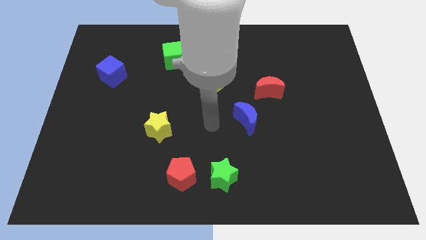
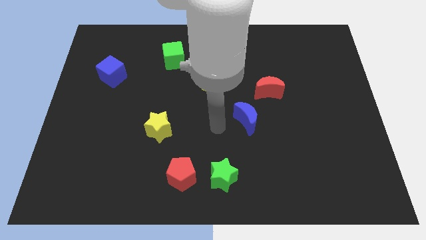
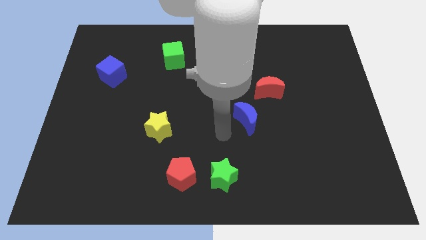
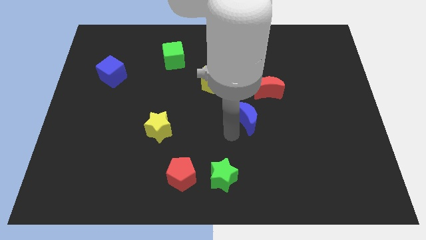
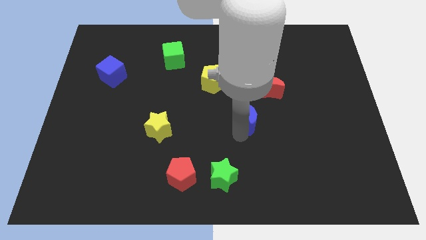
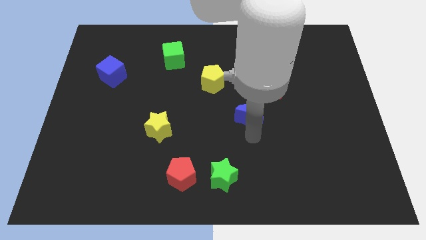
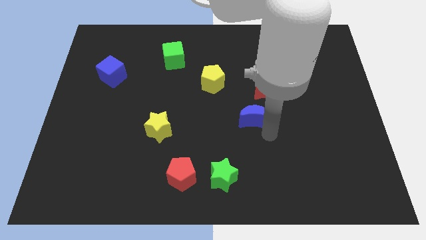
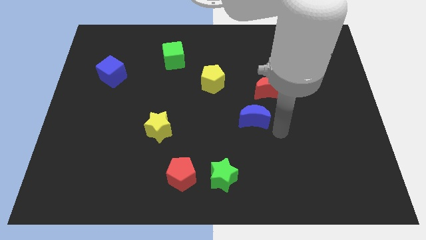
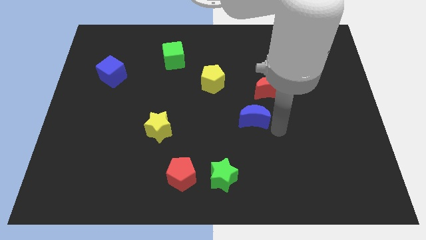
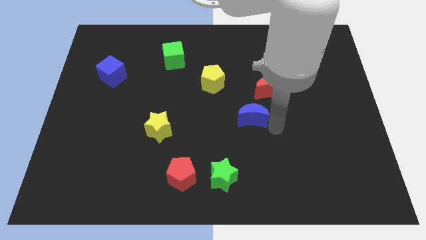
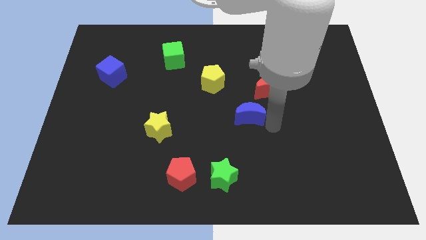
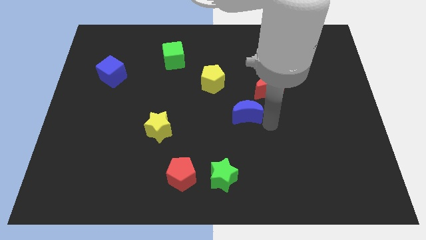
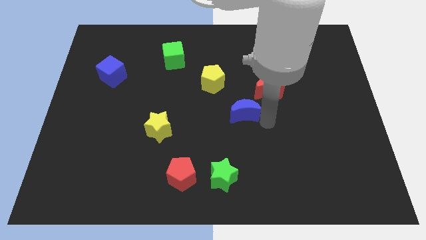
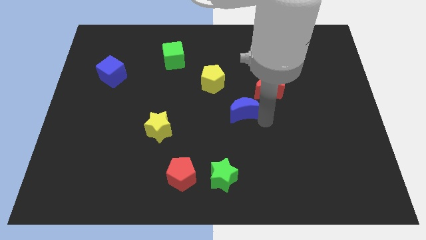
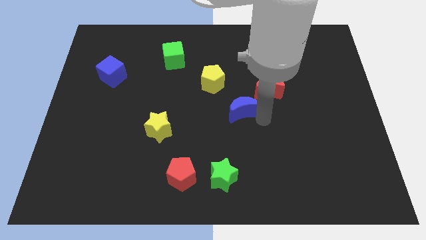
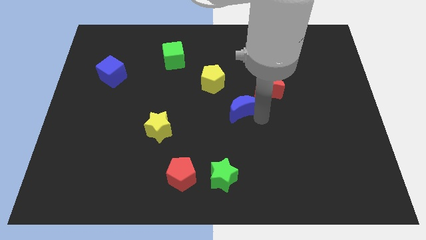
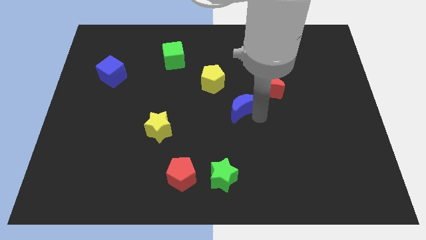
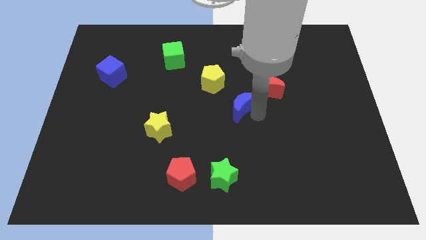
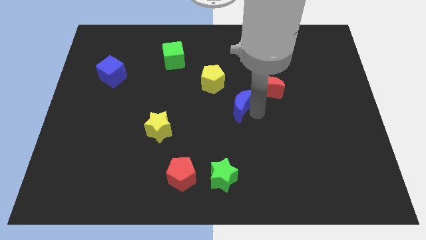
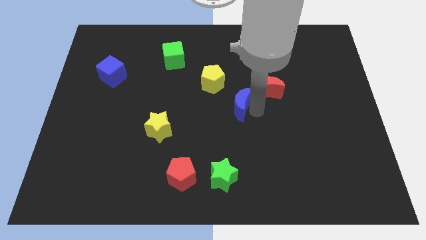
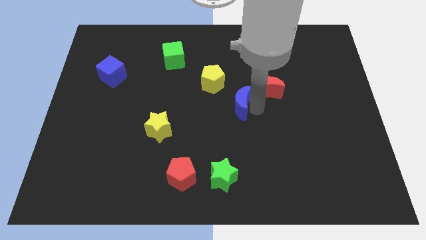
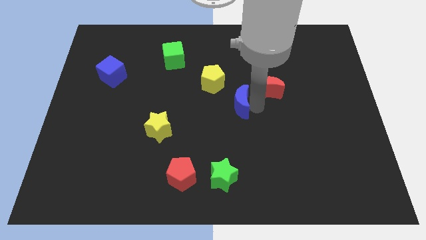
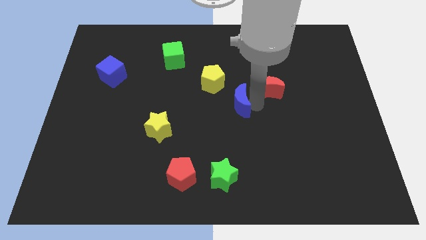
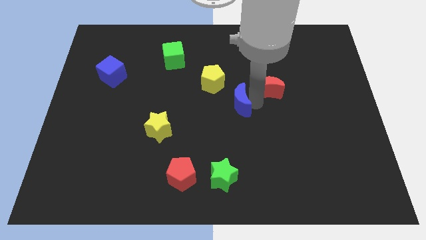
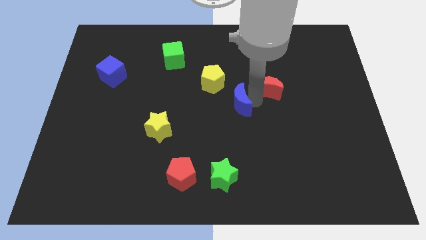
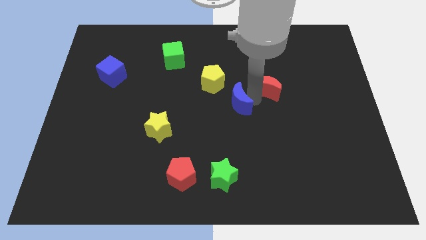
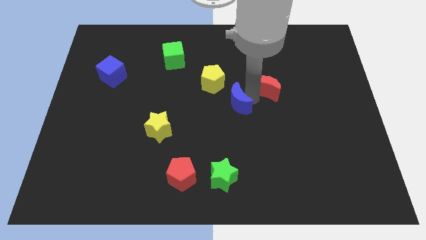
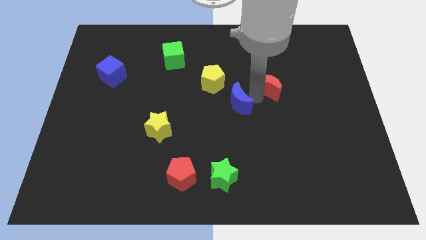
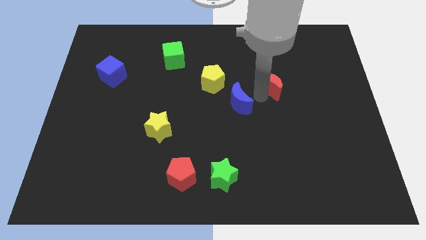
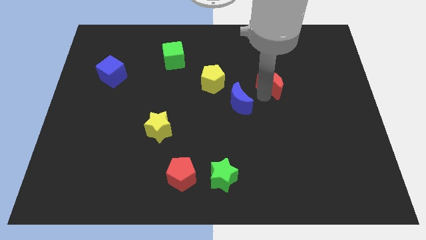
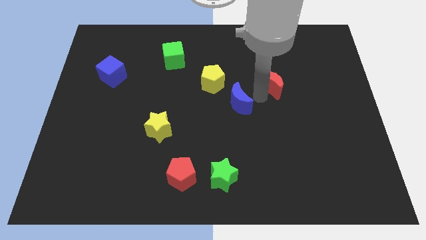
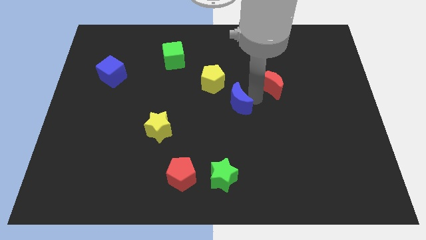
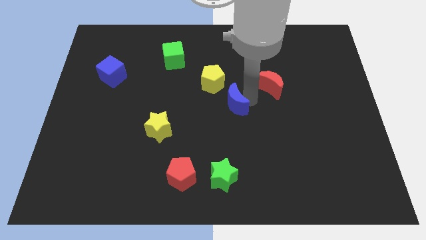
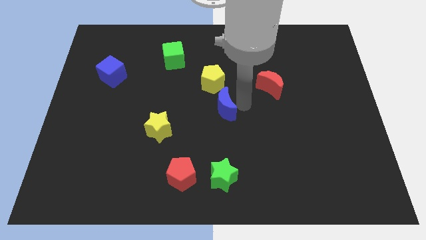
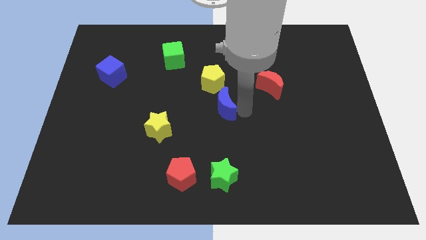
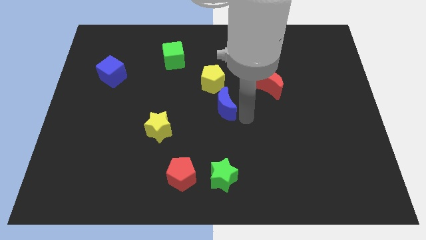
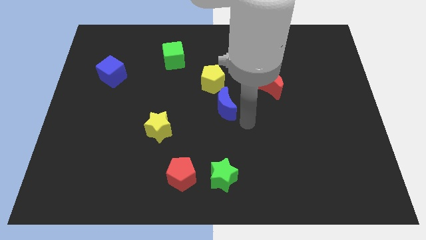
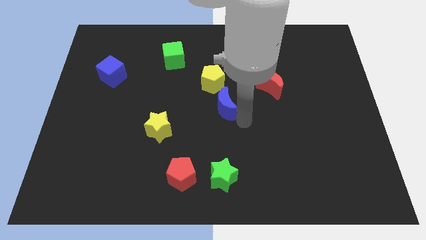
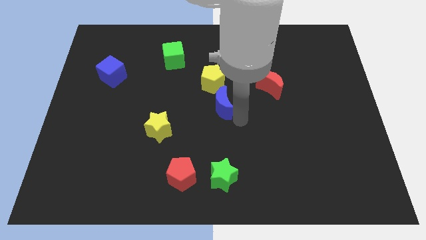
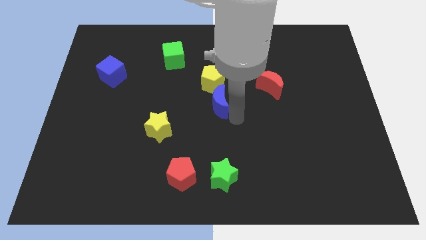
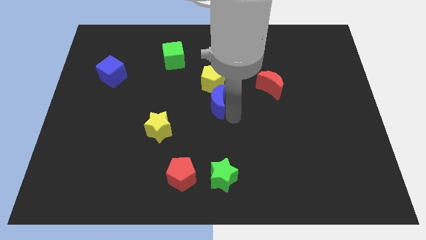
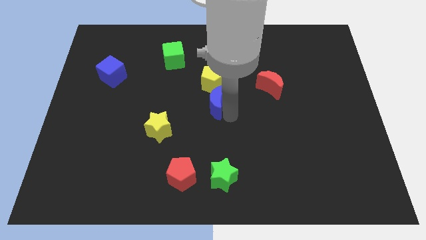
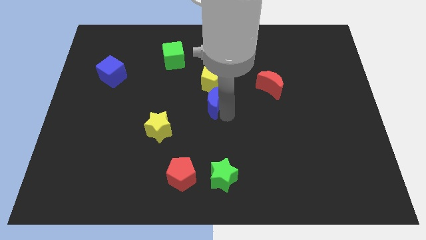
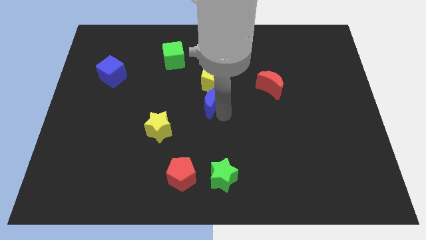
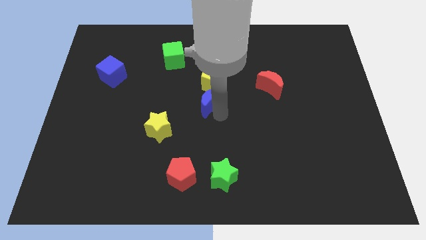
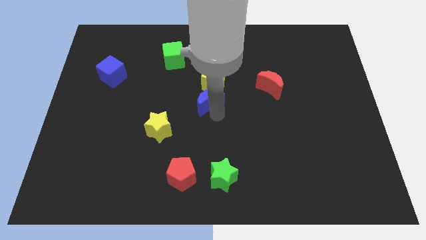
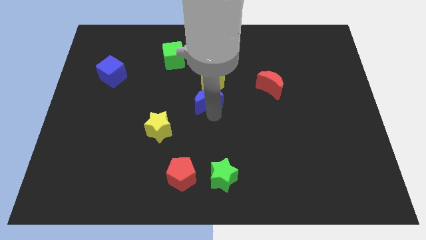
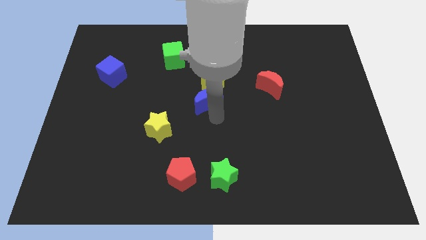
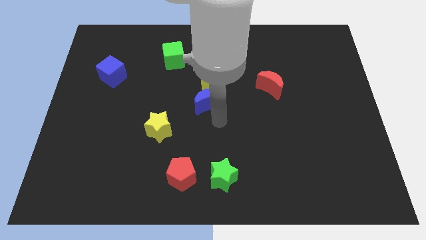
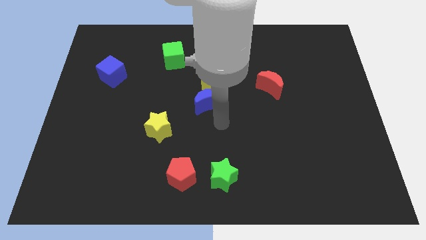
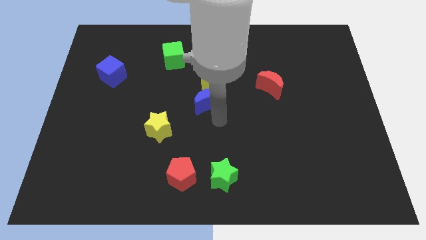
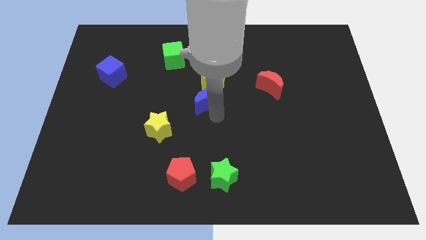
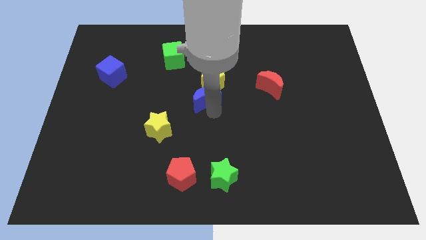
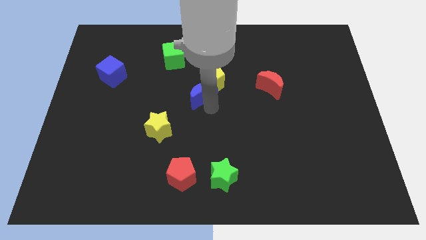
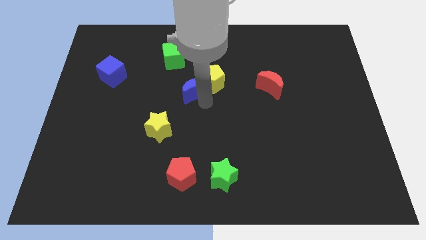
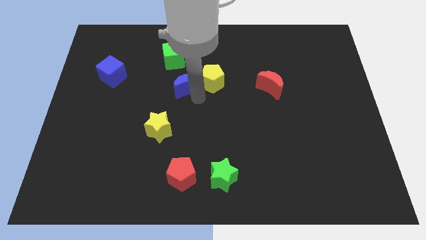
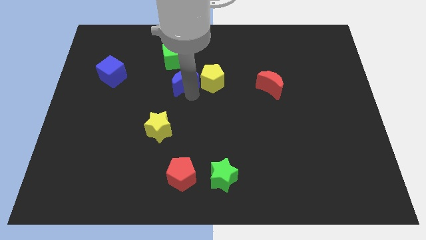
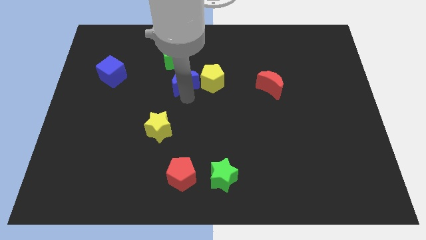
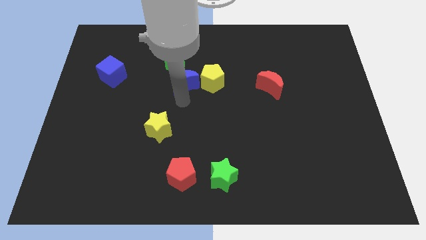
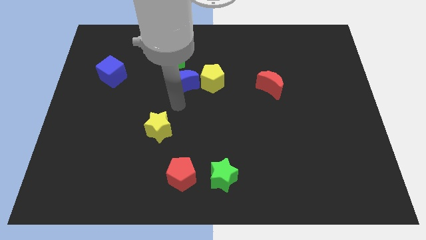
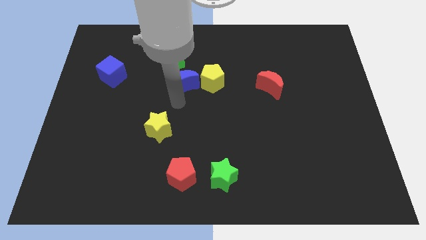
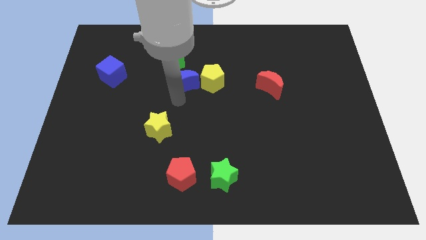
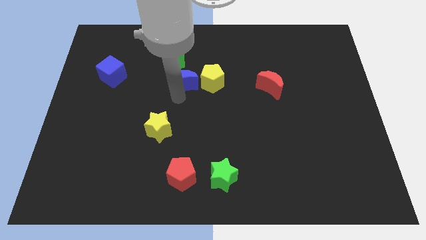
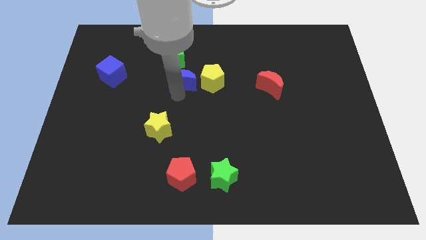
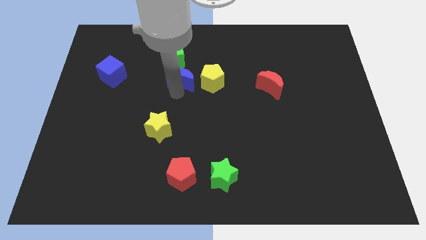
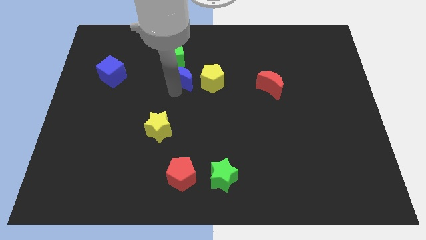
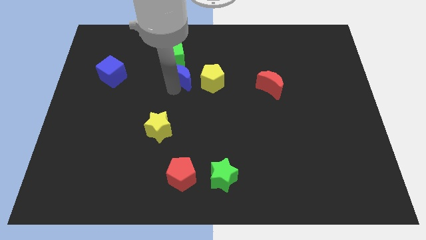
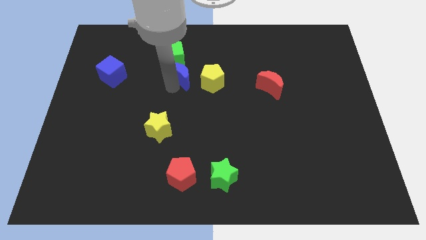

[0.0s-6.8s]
move the blue moon to the top left side of the yellow pentagon
